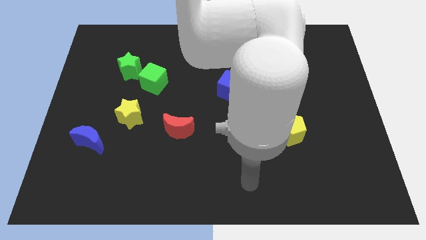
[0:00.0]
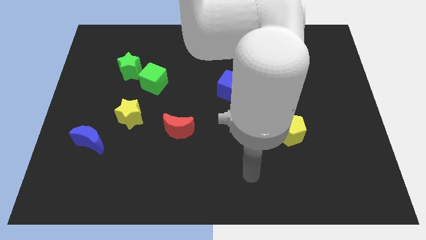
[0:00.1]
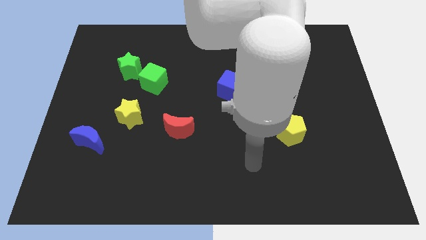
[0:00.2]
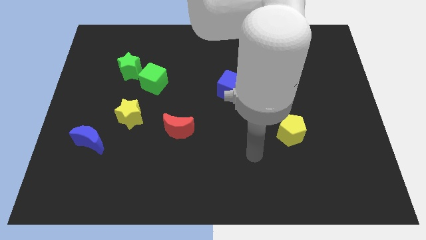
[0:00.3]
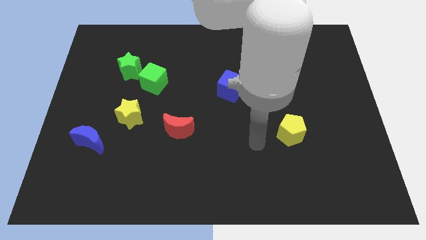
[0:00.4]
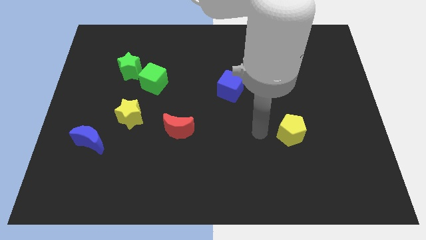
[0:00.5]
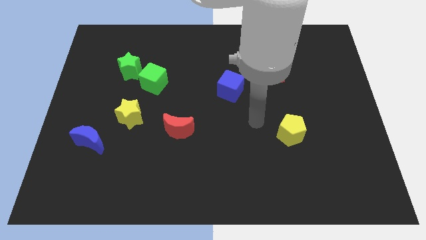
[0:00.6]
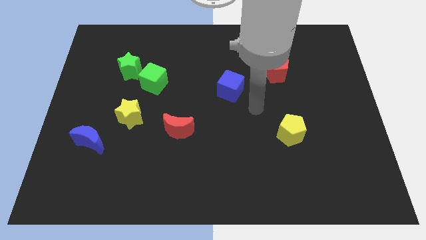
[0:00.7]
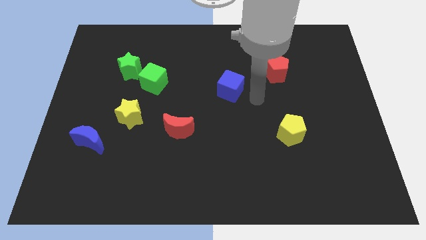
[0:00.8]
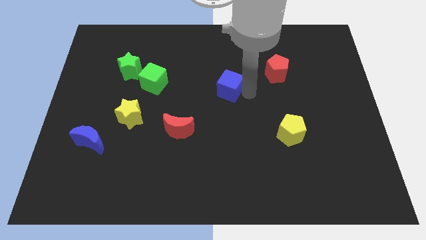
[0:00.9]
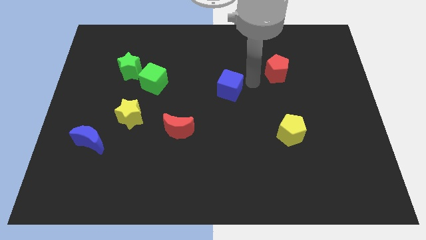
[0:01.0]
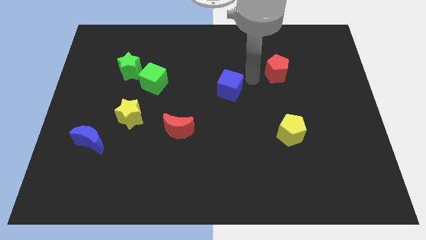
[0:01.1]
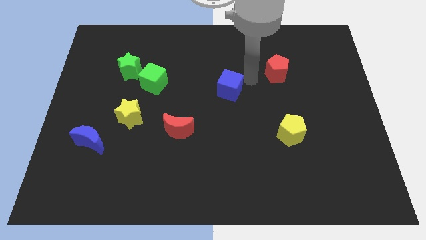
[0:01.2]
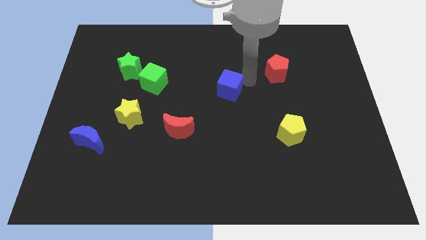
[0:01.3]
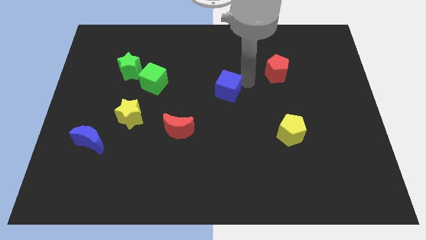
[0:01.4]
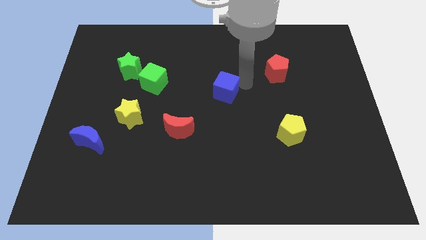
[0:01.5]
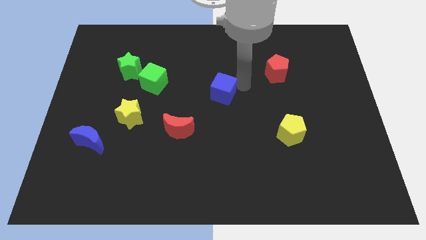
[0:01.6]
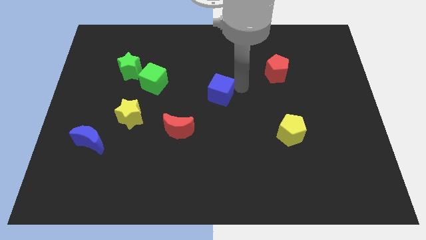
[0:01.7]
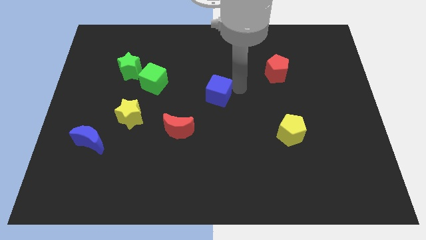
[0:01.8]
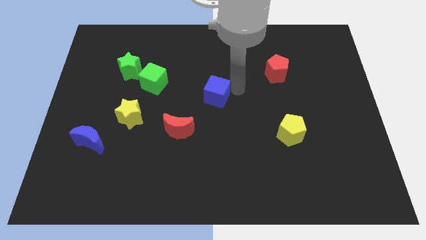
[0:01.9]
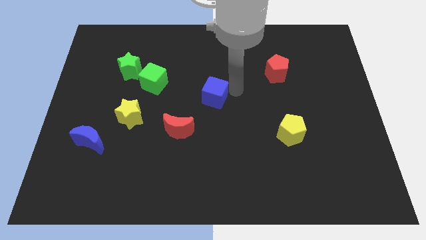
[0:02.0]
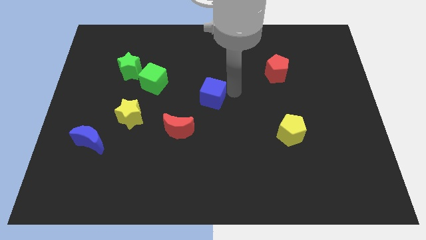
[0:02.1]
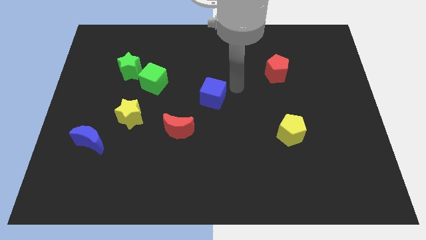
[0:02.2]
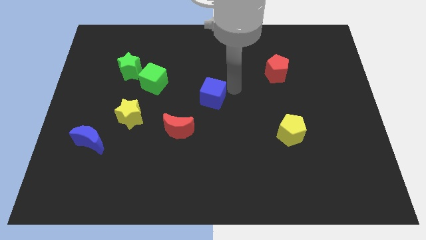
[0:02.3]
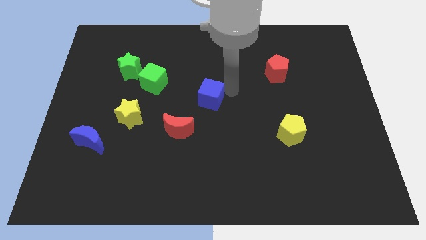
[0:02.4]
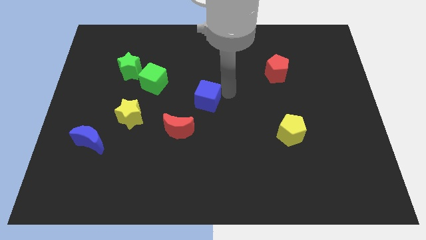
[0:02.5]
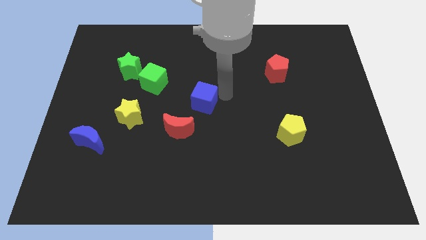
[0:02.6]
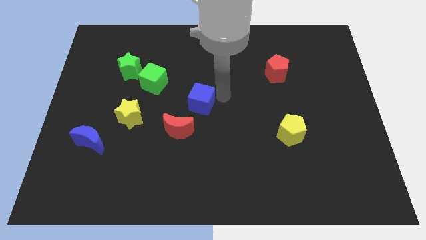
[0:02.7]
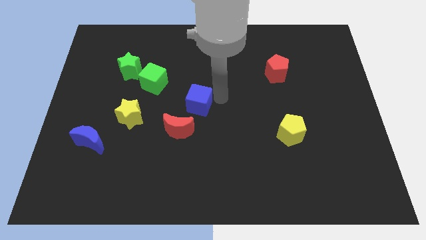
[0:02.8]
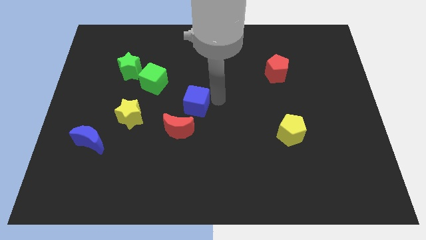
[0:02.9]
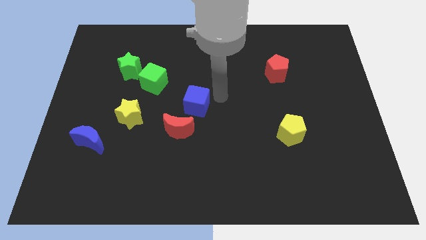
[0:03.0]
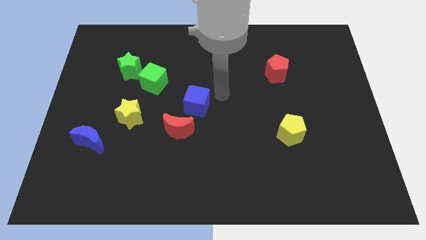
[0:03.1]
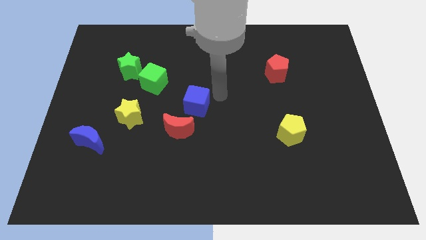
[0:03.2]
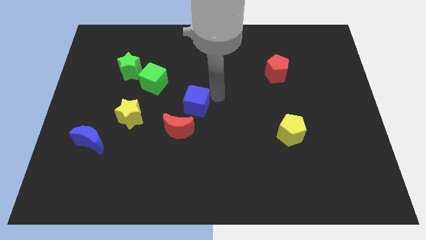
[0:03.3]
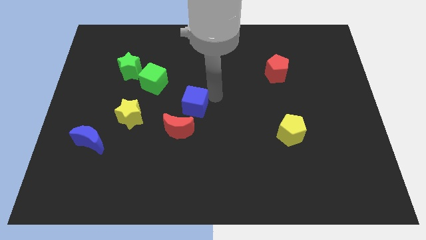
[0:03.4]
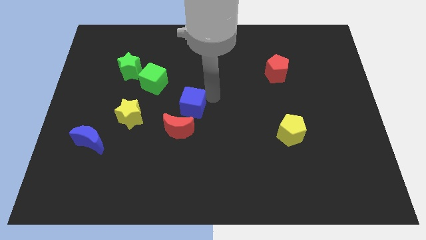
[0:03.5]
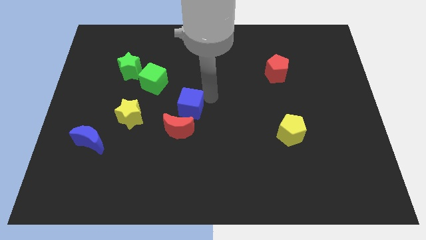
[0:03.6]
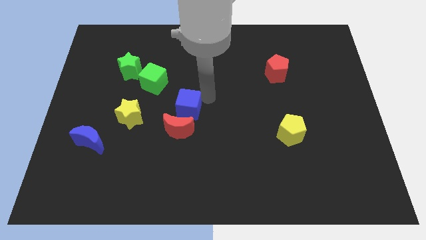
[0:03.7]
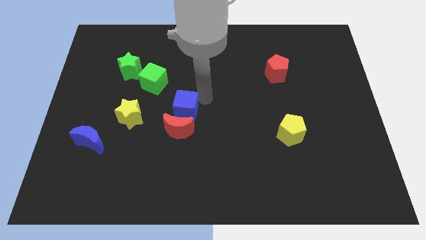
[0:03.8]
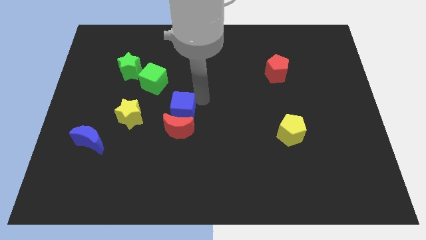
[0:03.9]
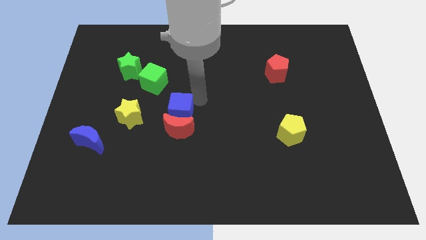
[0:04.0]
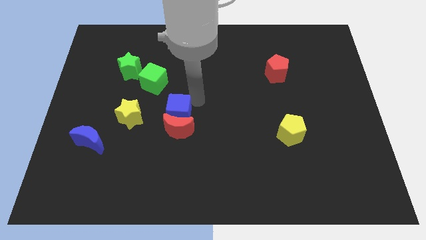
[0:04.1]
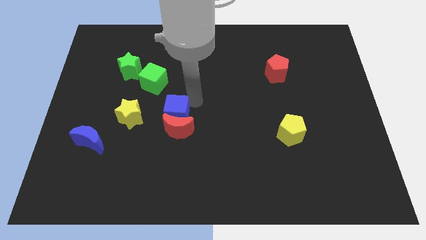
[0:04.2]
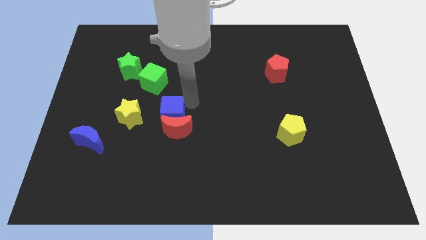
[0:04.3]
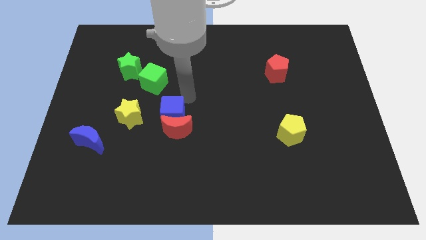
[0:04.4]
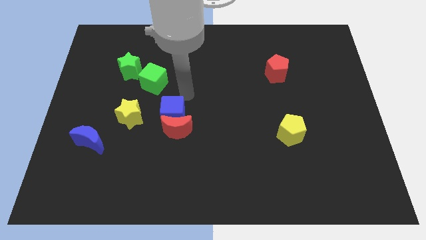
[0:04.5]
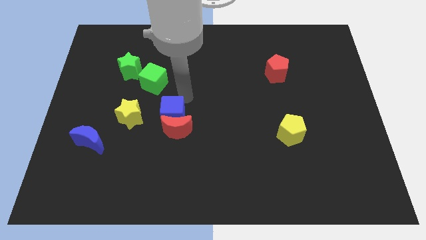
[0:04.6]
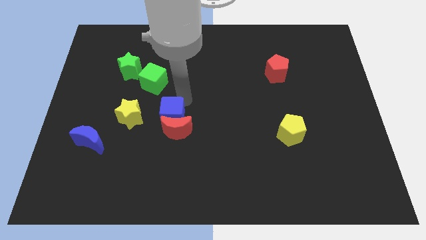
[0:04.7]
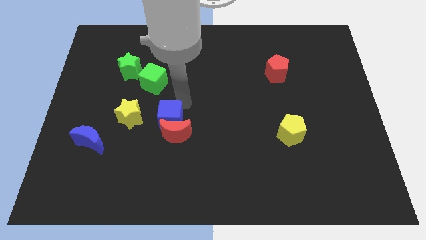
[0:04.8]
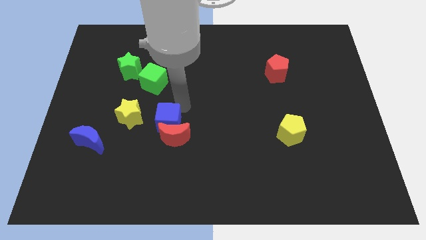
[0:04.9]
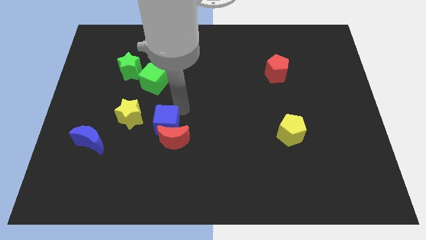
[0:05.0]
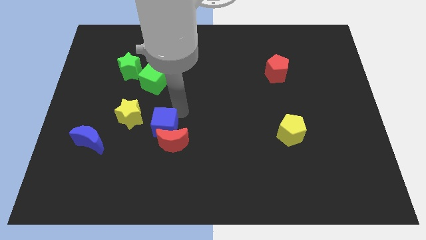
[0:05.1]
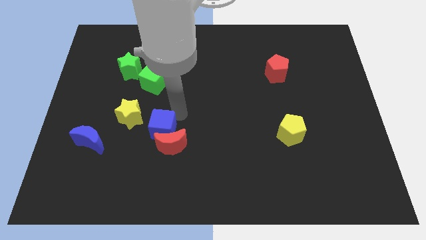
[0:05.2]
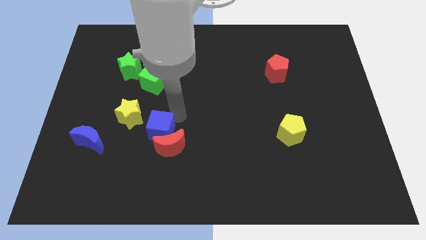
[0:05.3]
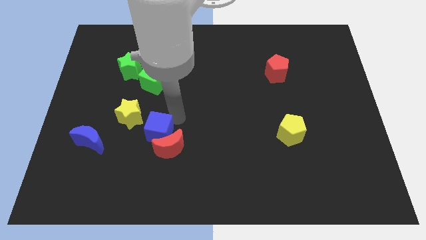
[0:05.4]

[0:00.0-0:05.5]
move the blue cube downwards and to the left diagonally

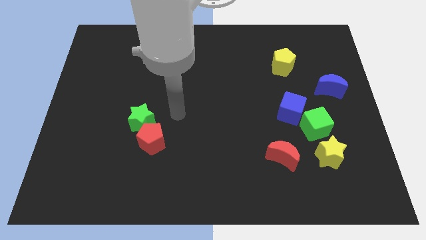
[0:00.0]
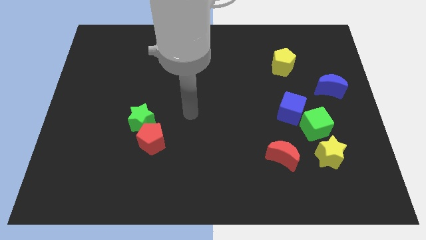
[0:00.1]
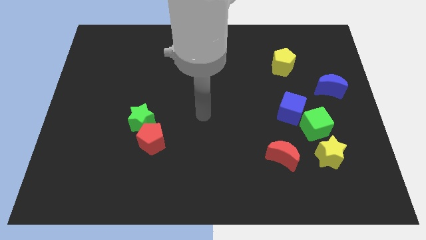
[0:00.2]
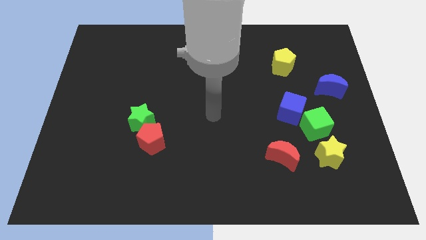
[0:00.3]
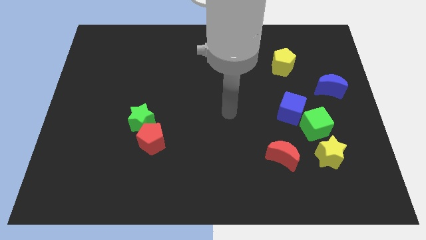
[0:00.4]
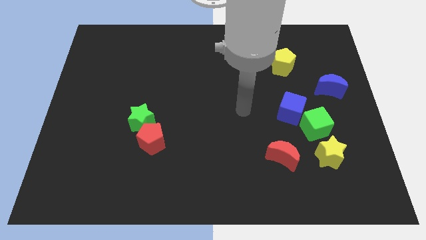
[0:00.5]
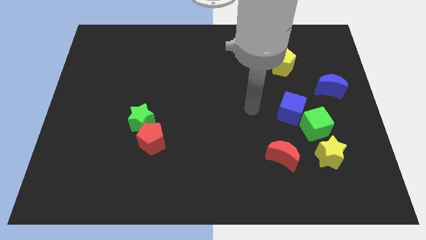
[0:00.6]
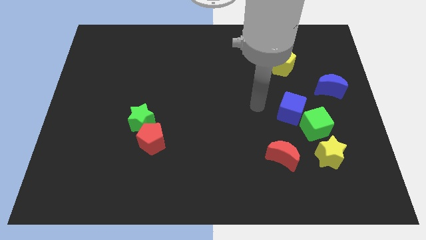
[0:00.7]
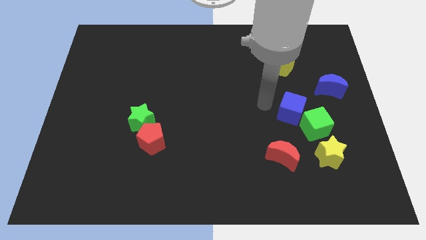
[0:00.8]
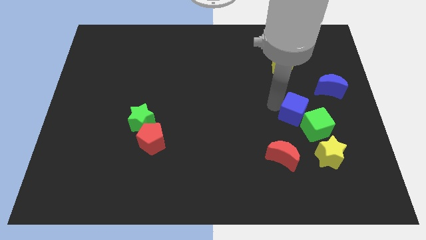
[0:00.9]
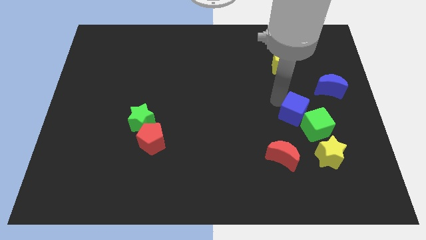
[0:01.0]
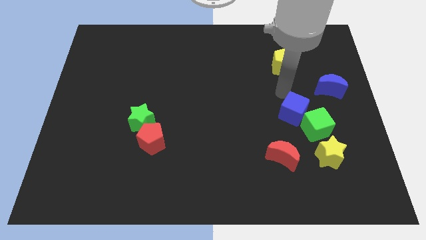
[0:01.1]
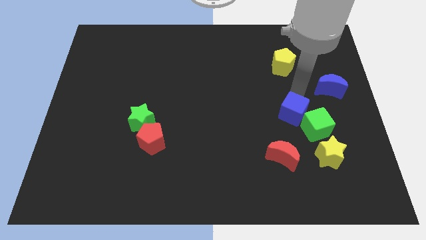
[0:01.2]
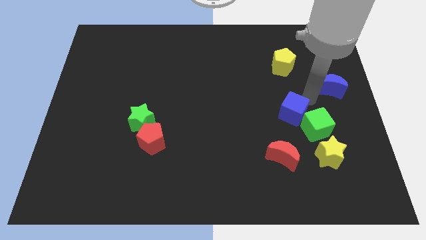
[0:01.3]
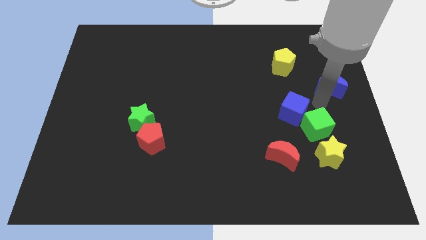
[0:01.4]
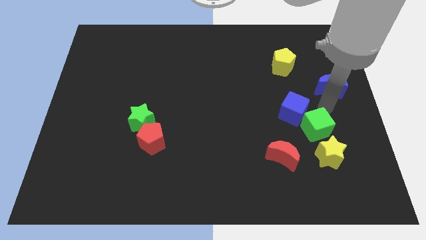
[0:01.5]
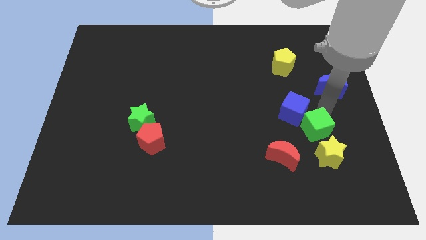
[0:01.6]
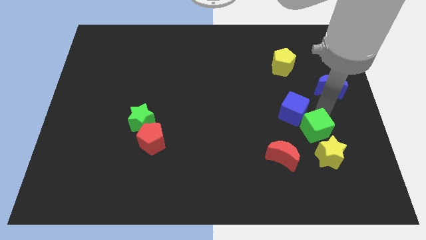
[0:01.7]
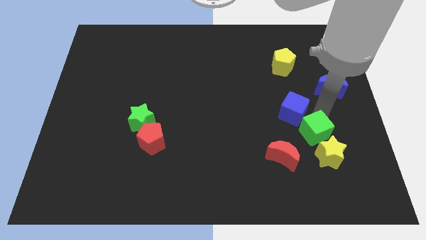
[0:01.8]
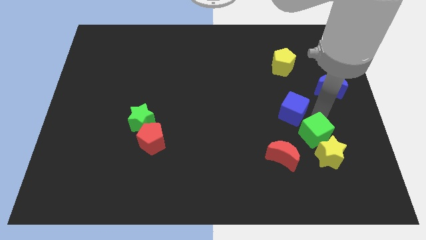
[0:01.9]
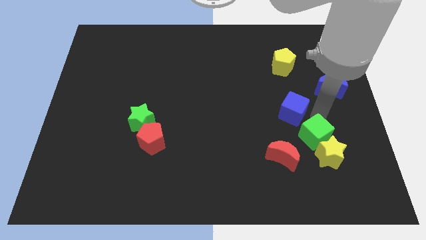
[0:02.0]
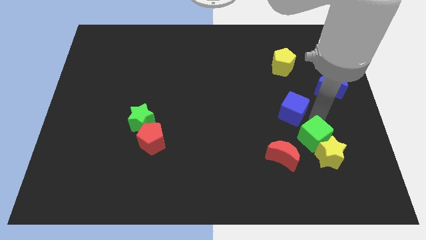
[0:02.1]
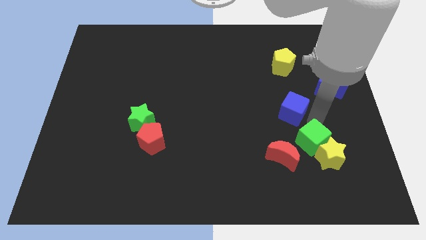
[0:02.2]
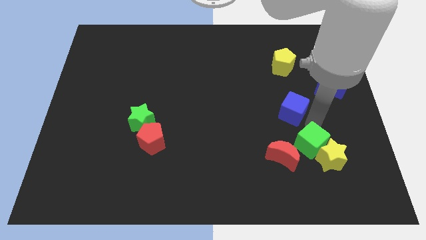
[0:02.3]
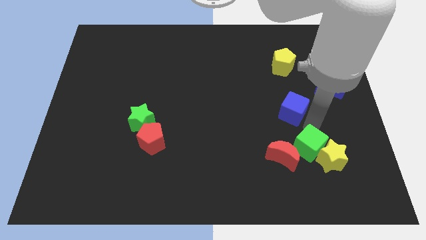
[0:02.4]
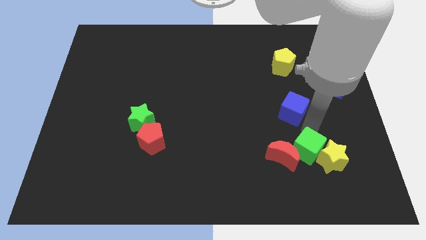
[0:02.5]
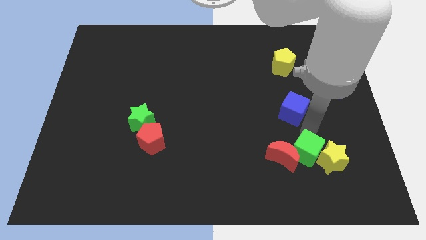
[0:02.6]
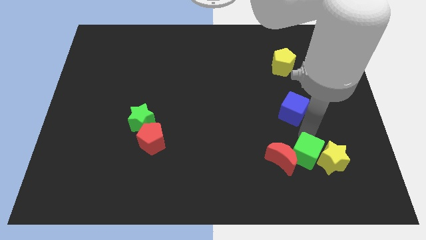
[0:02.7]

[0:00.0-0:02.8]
push the green cube somewhat diagonally downwards and left

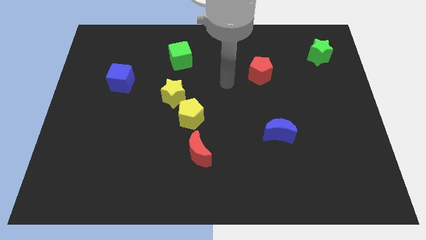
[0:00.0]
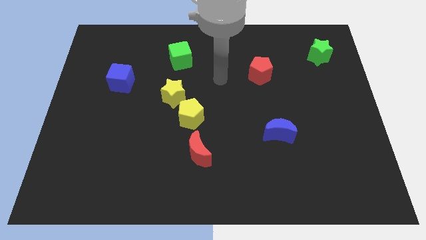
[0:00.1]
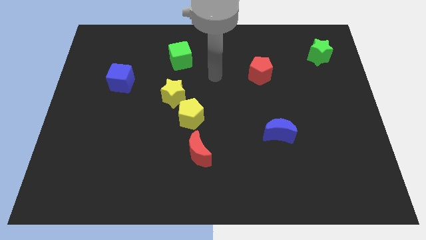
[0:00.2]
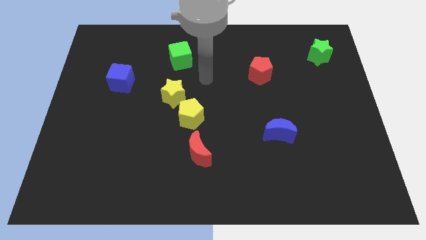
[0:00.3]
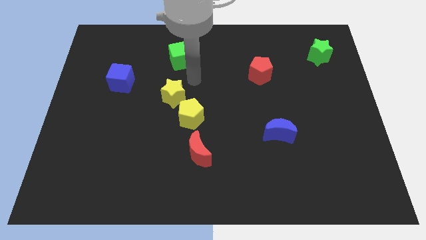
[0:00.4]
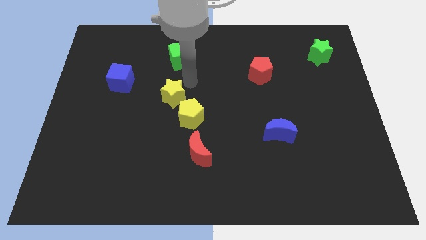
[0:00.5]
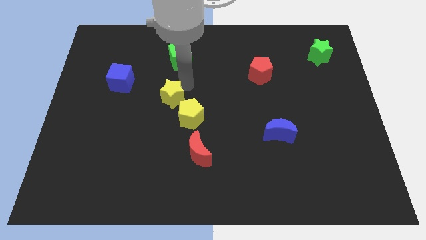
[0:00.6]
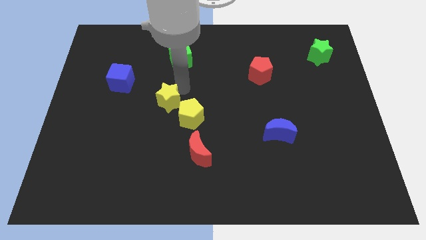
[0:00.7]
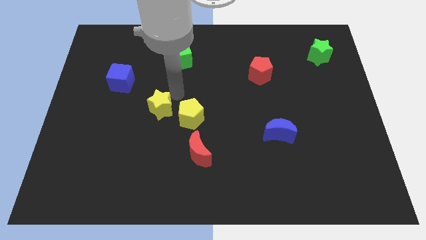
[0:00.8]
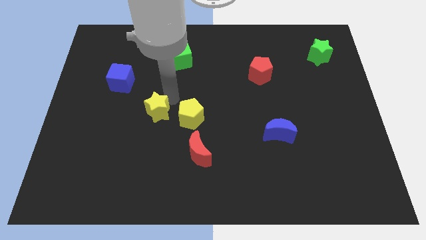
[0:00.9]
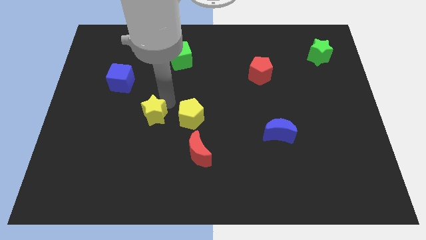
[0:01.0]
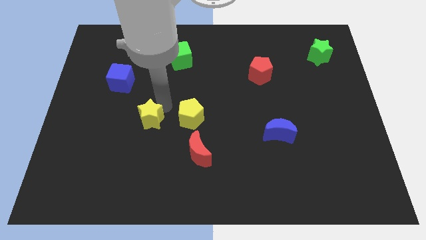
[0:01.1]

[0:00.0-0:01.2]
move the yellow star somewhat downwards and left
